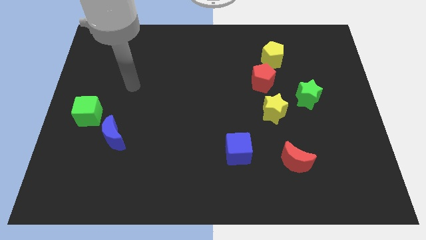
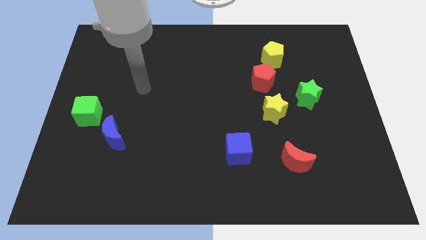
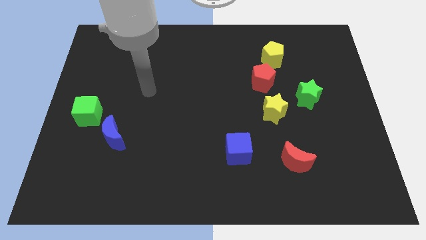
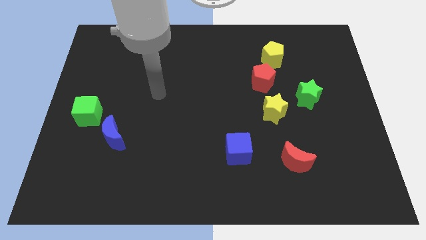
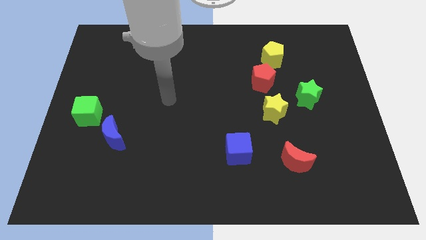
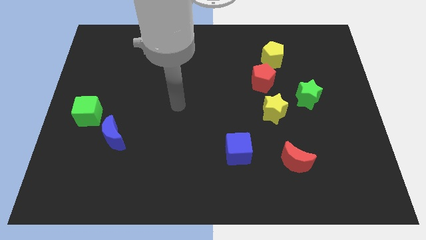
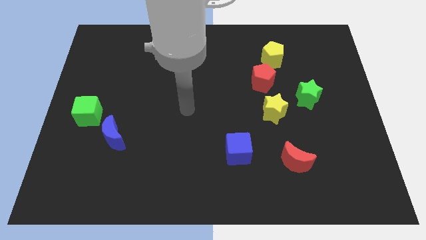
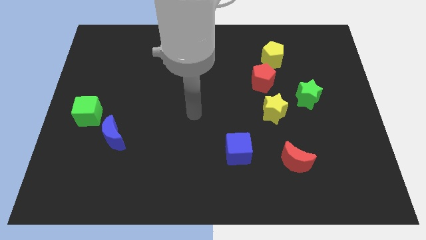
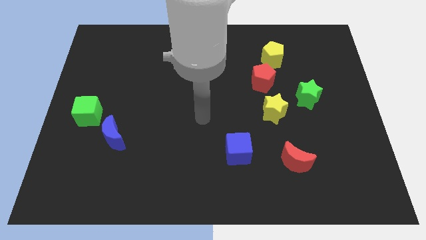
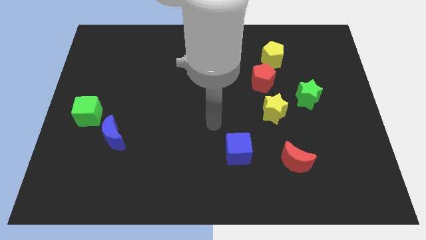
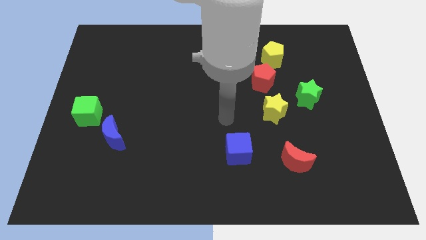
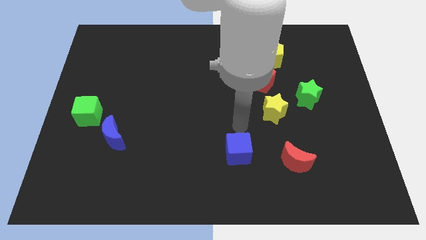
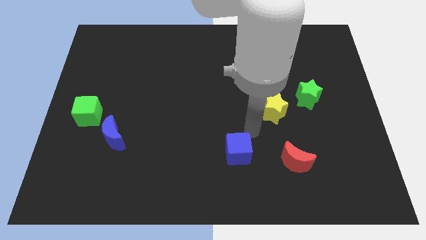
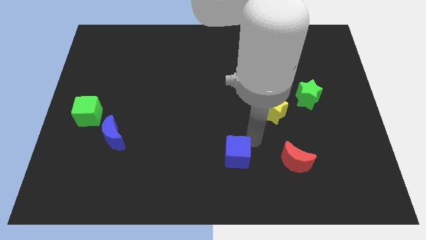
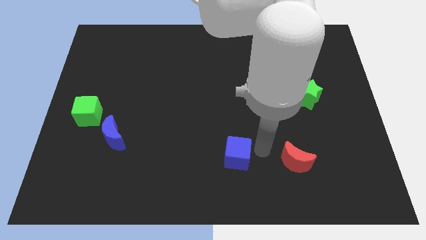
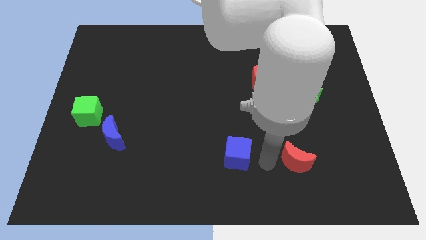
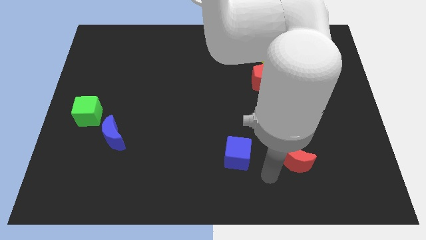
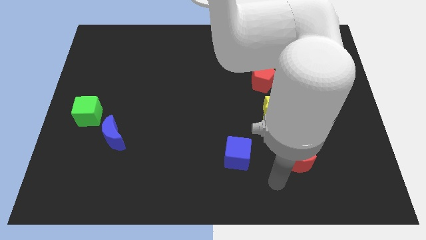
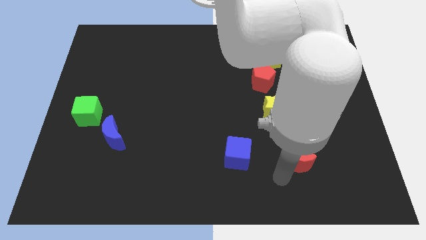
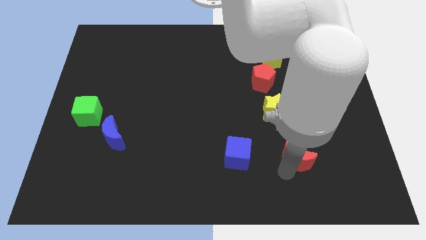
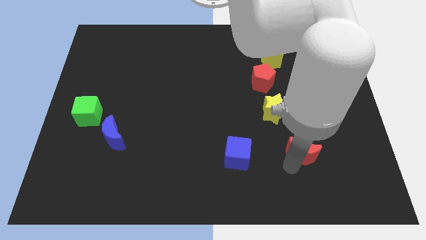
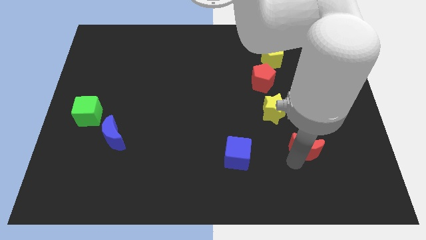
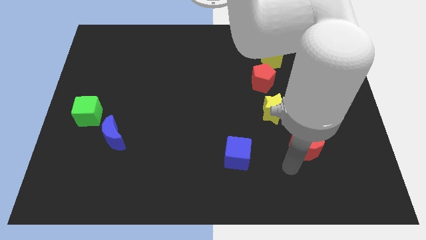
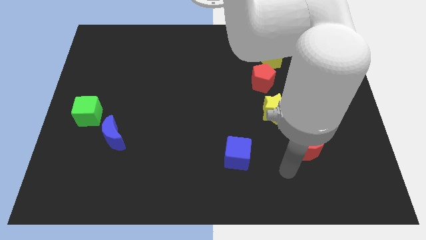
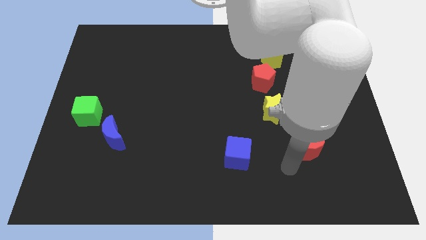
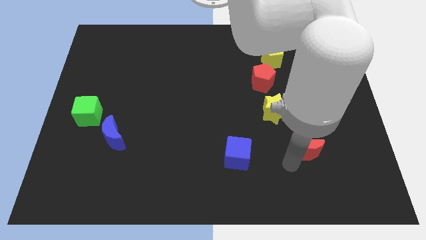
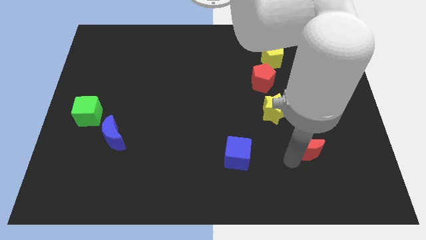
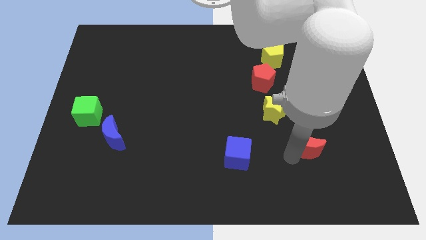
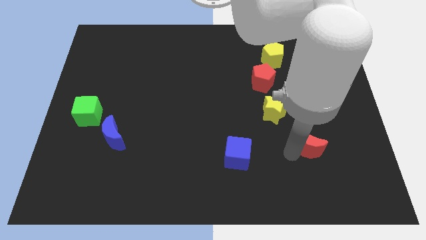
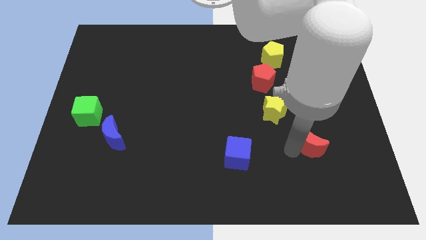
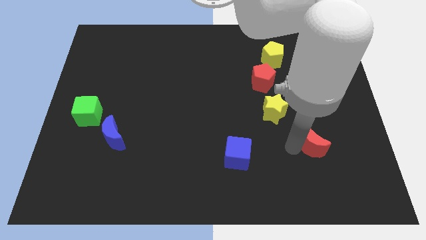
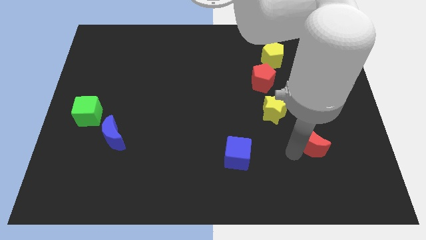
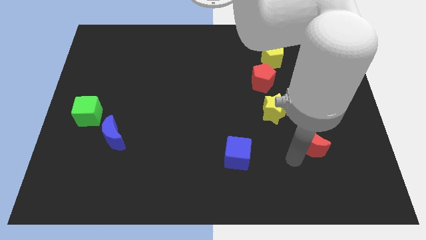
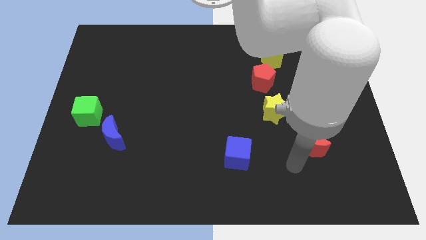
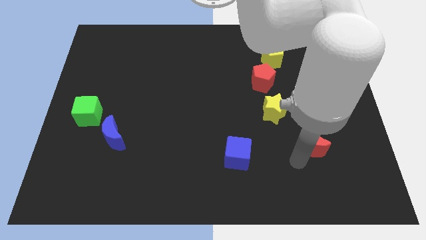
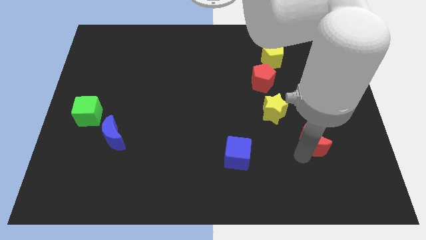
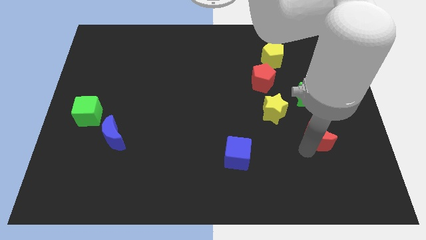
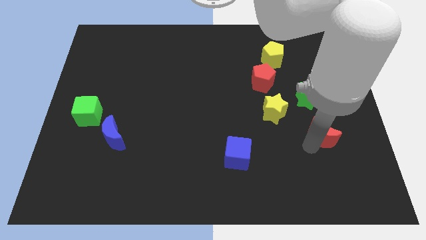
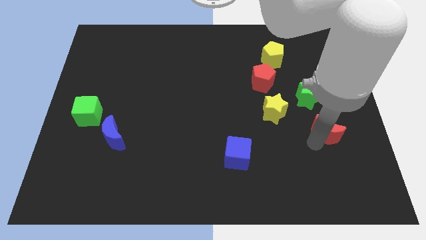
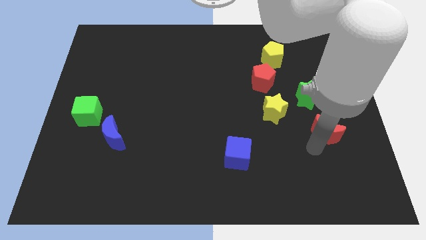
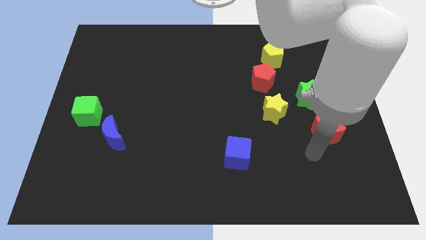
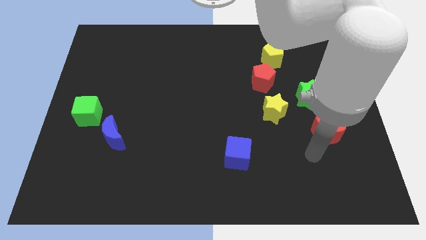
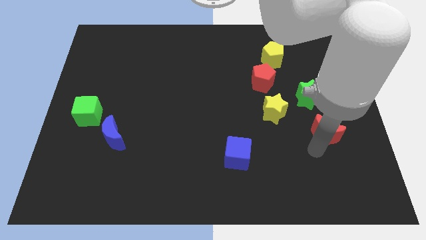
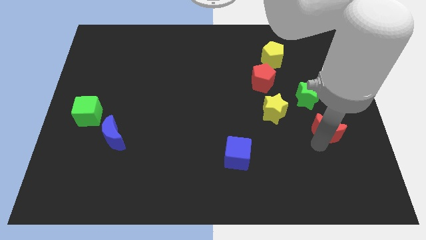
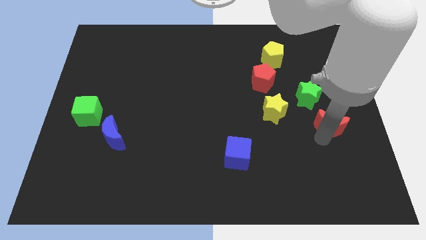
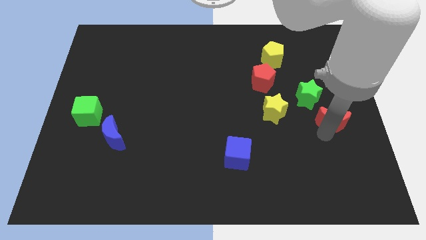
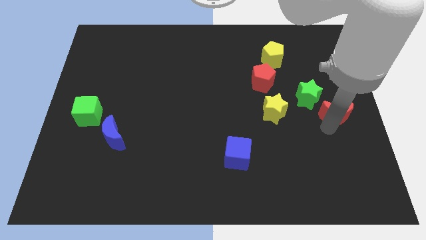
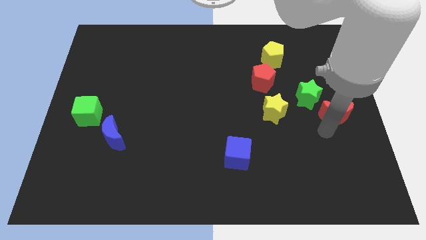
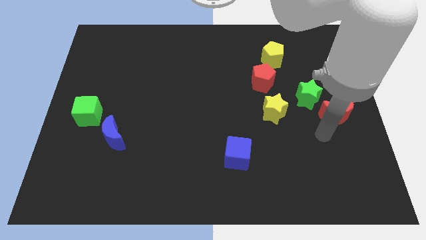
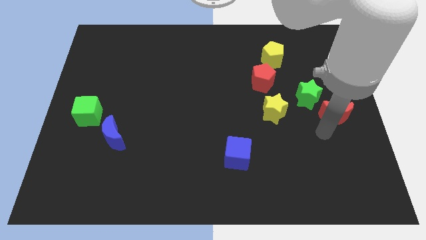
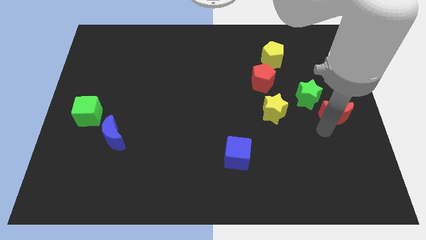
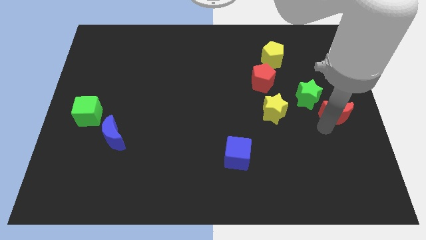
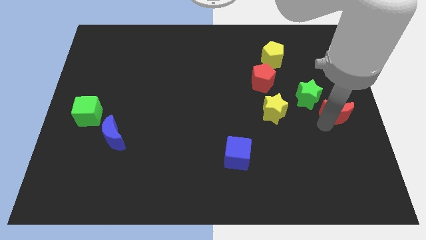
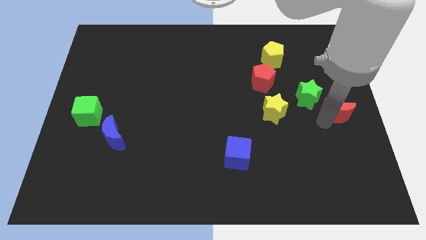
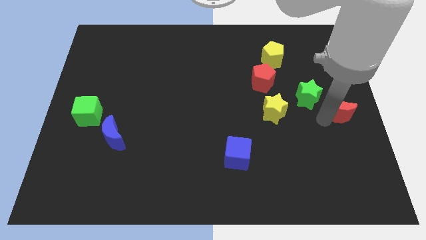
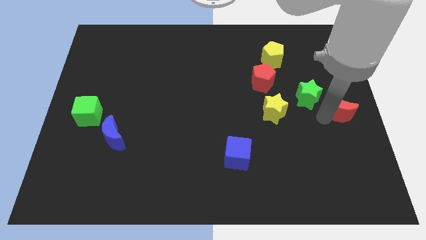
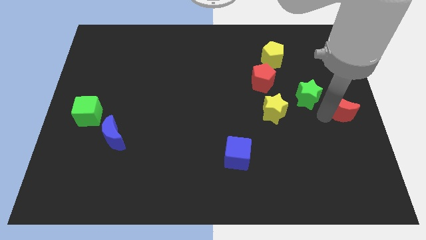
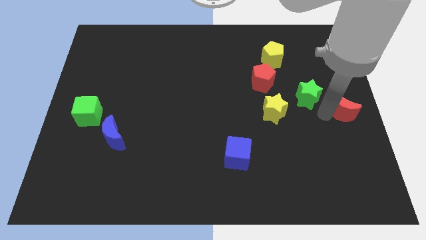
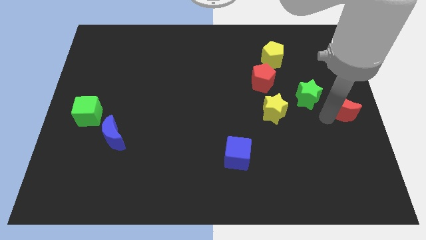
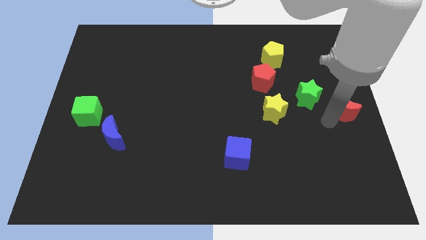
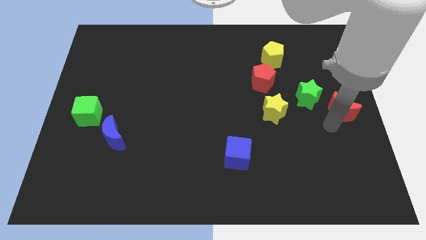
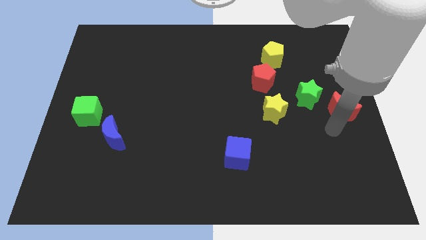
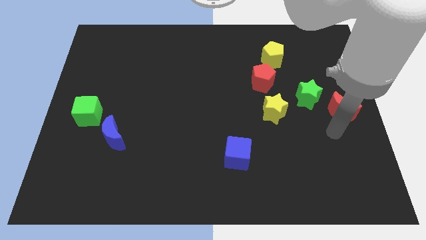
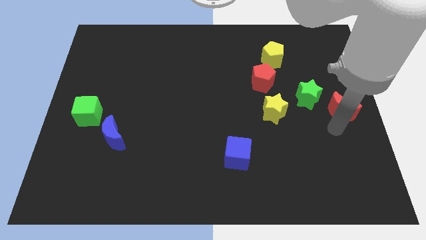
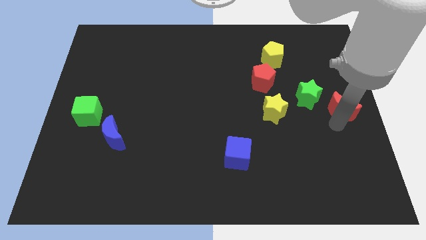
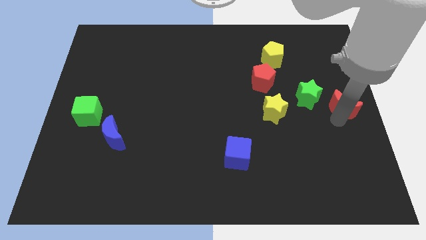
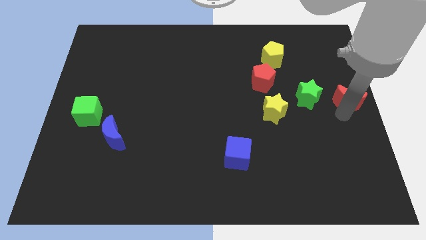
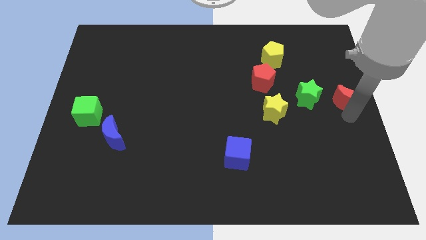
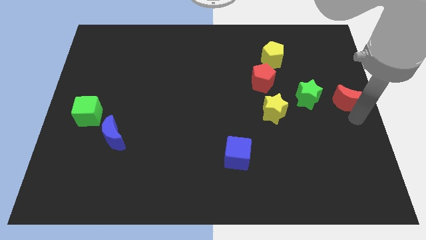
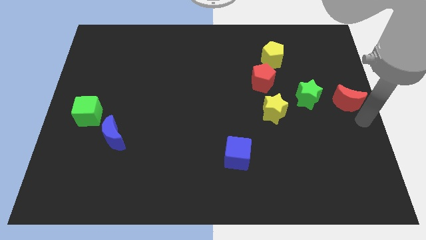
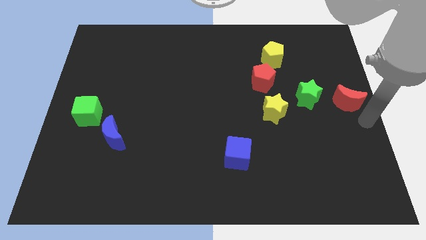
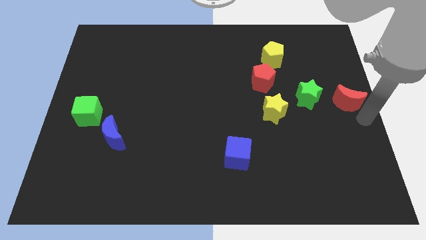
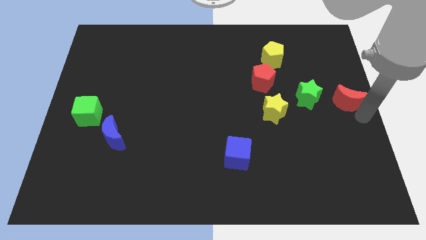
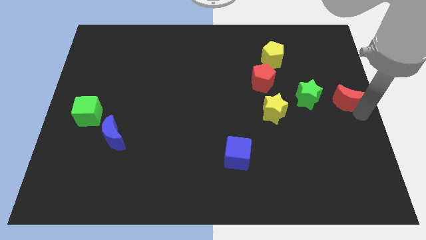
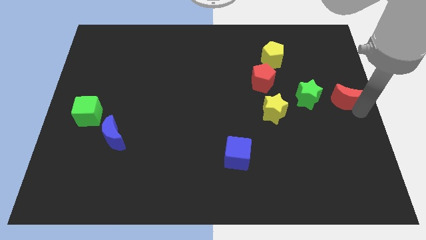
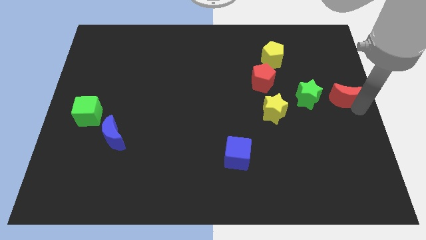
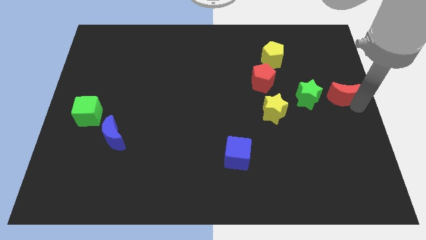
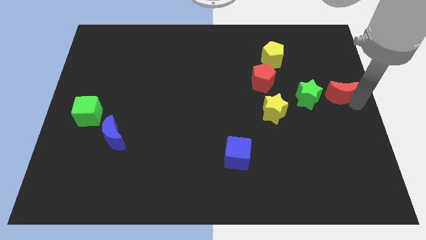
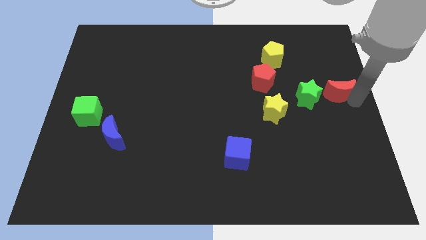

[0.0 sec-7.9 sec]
slide the red moon to the top right side of the green star
